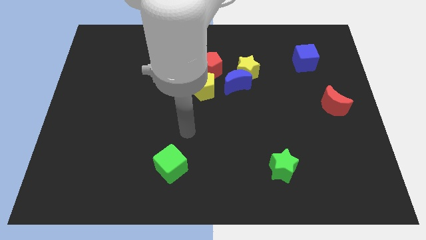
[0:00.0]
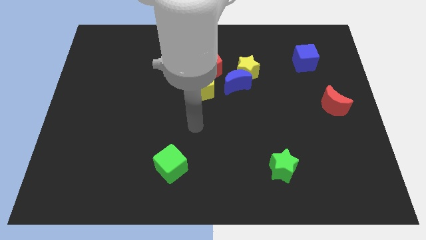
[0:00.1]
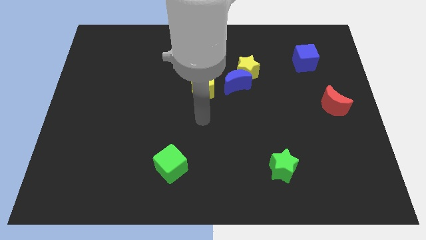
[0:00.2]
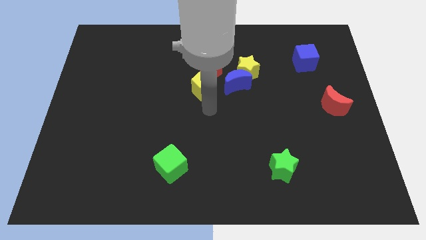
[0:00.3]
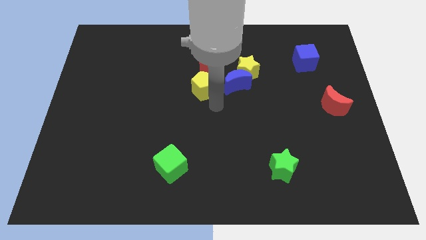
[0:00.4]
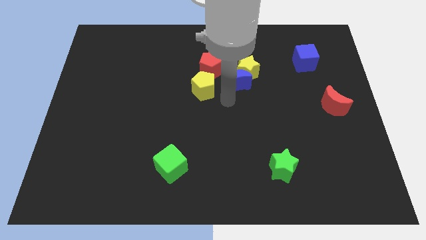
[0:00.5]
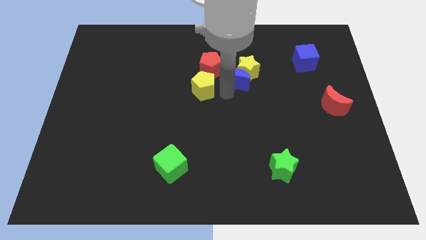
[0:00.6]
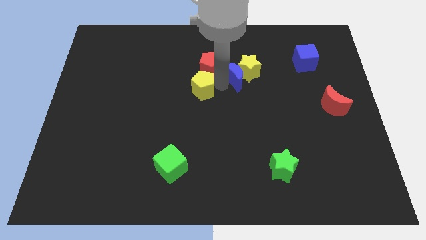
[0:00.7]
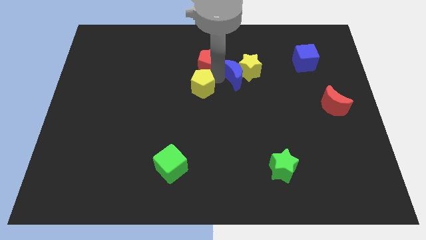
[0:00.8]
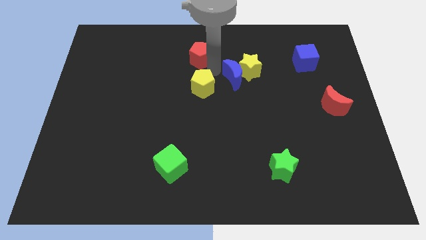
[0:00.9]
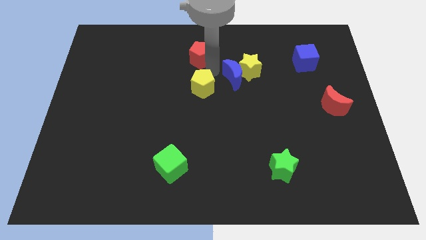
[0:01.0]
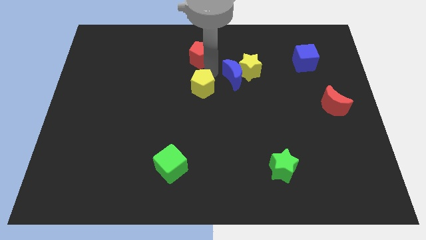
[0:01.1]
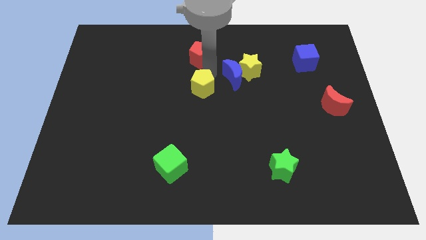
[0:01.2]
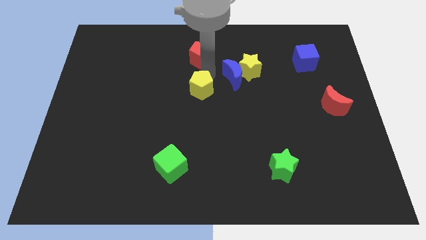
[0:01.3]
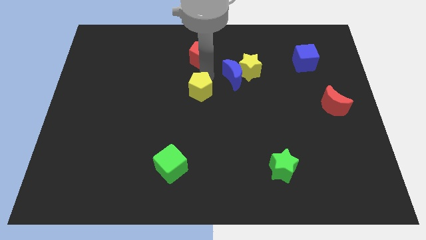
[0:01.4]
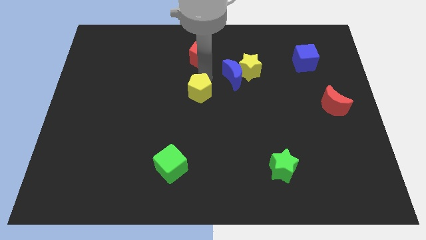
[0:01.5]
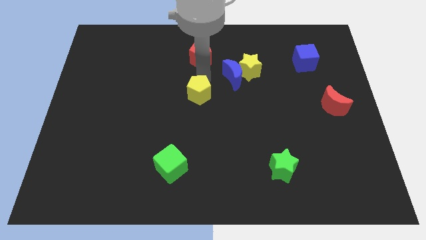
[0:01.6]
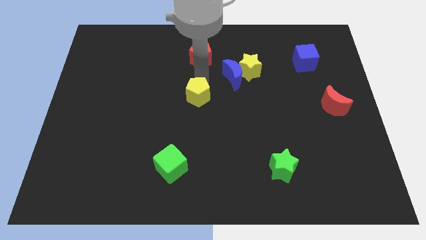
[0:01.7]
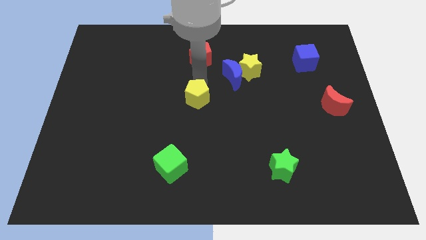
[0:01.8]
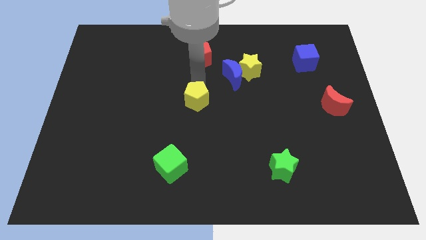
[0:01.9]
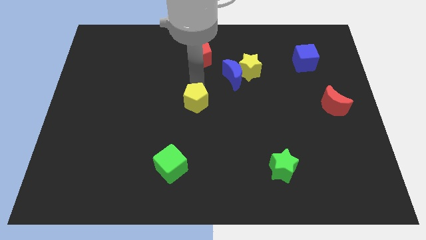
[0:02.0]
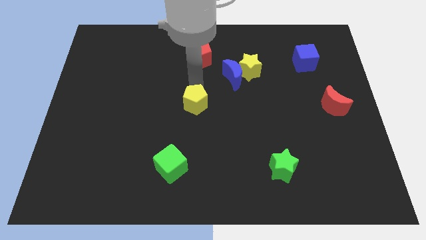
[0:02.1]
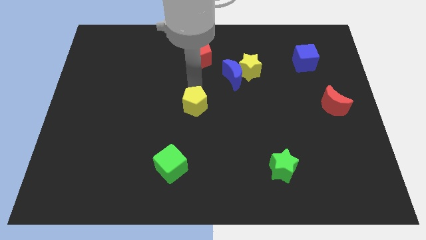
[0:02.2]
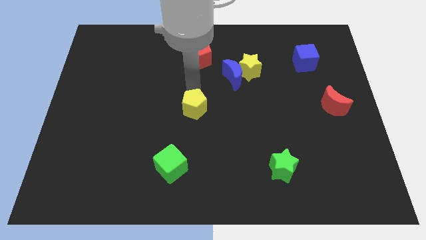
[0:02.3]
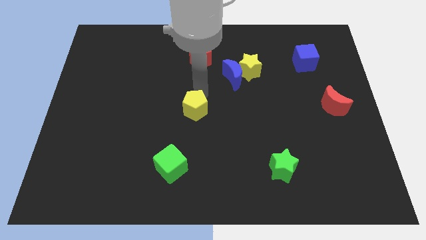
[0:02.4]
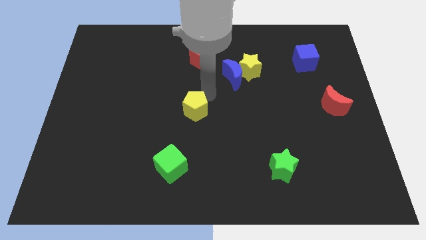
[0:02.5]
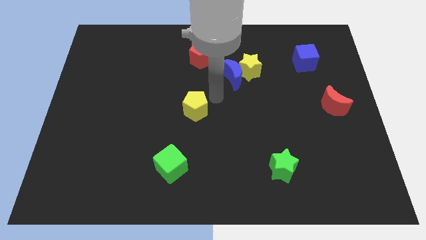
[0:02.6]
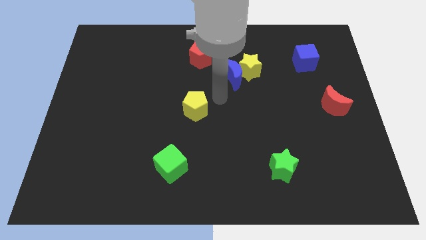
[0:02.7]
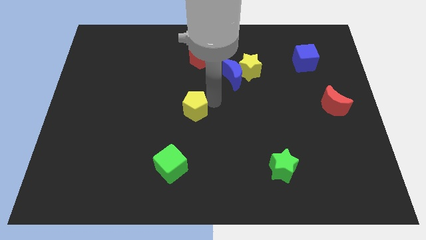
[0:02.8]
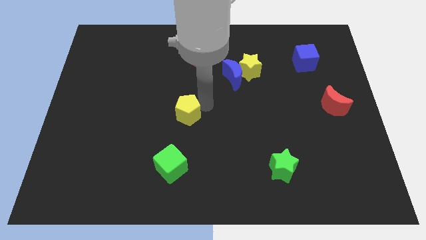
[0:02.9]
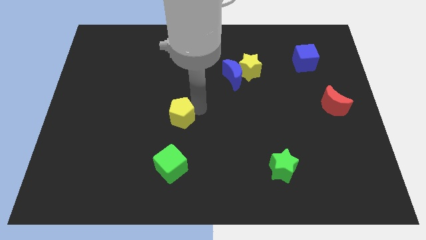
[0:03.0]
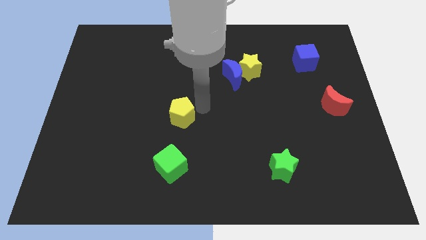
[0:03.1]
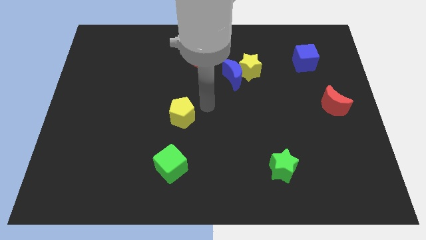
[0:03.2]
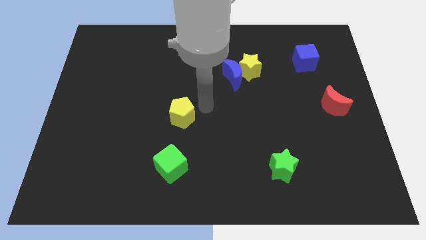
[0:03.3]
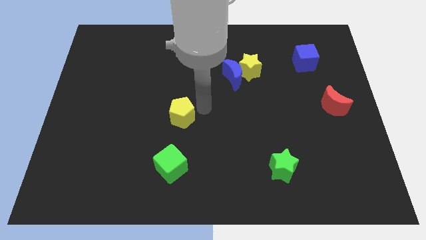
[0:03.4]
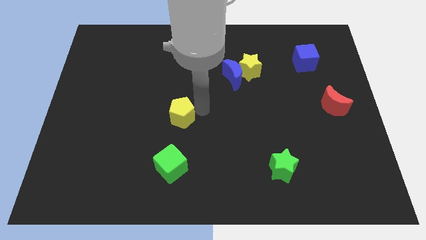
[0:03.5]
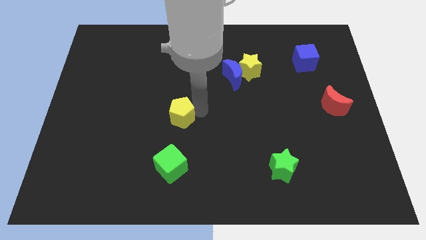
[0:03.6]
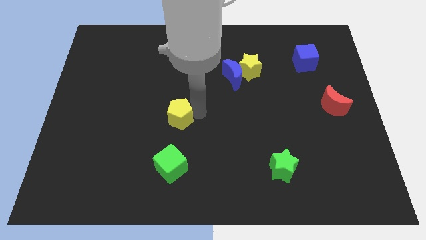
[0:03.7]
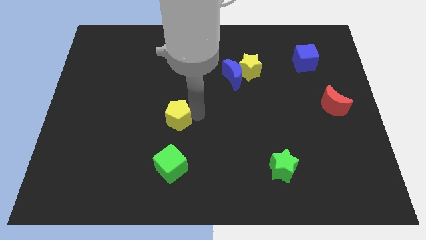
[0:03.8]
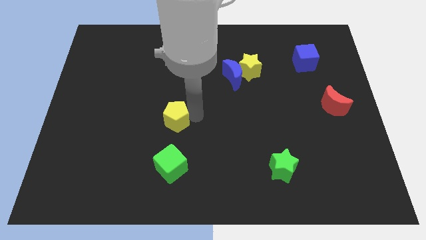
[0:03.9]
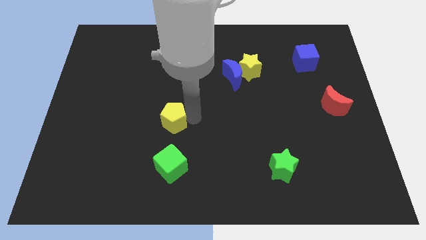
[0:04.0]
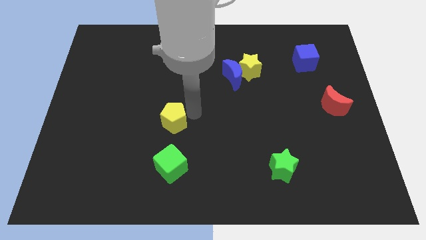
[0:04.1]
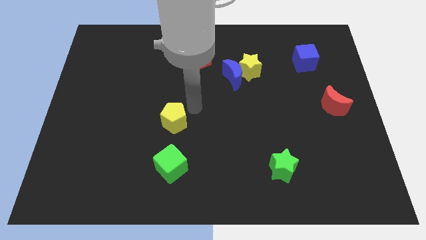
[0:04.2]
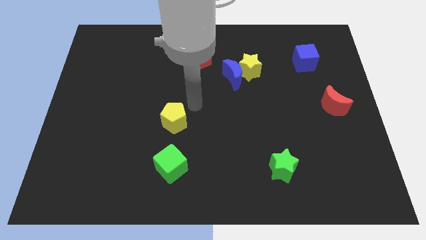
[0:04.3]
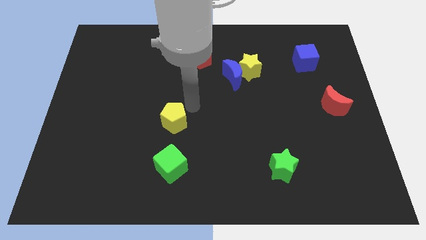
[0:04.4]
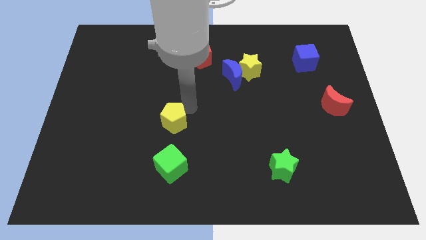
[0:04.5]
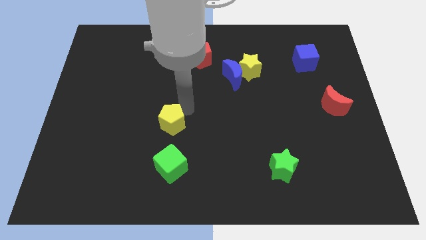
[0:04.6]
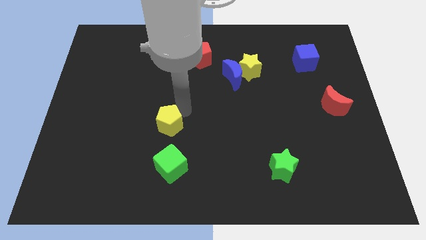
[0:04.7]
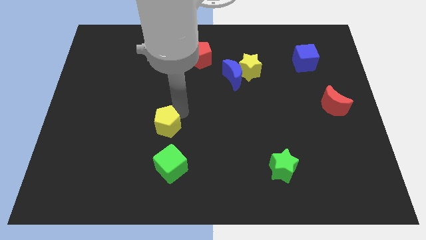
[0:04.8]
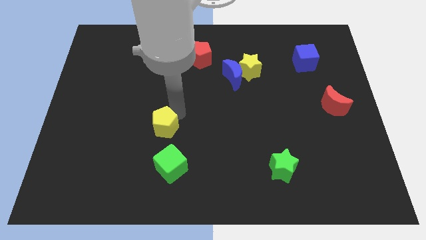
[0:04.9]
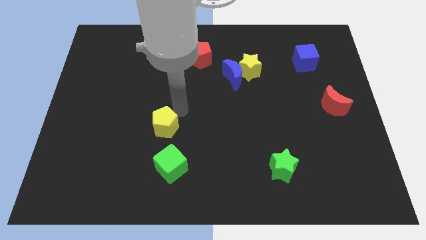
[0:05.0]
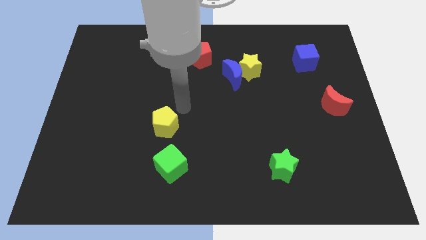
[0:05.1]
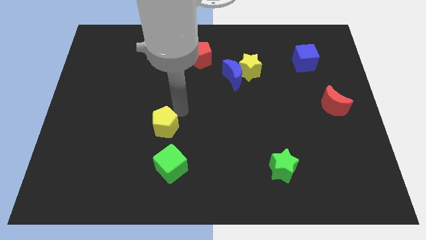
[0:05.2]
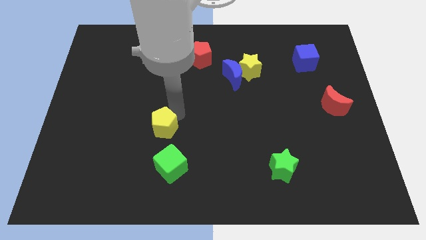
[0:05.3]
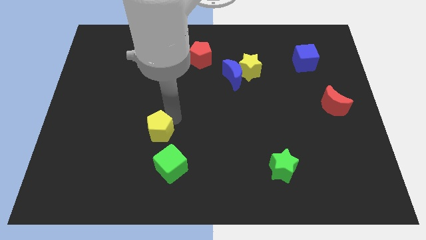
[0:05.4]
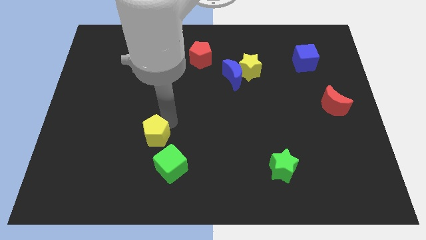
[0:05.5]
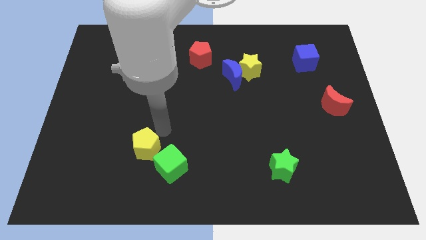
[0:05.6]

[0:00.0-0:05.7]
slide the yellow pentagon to the left side of the green cube

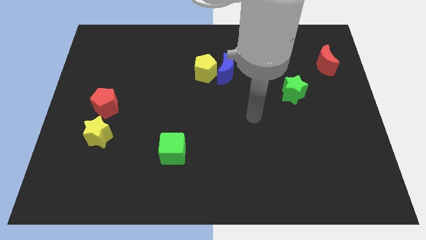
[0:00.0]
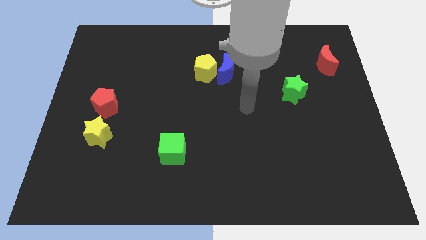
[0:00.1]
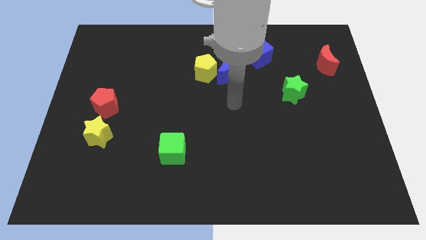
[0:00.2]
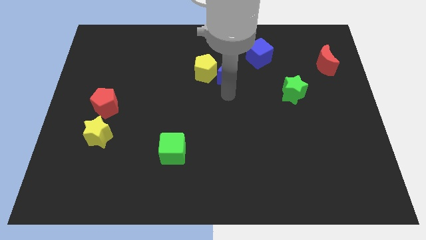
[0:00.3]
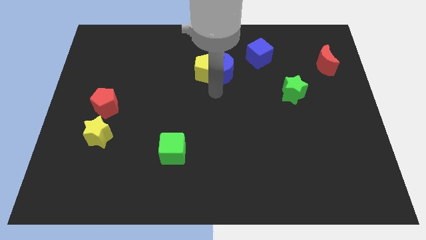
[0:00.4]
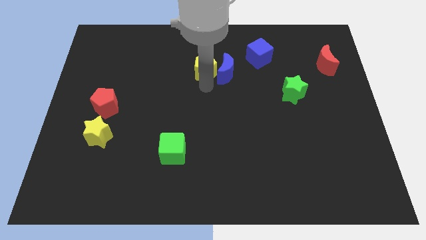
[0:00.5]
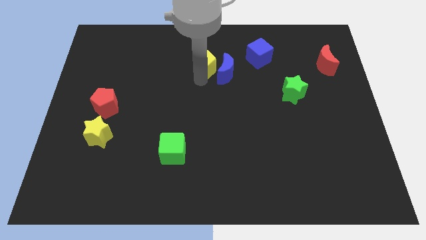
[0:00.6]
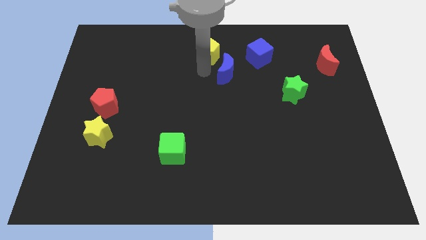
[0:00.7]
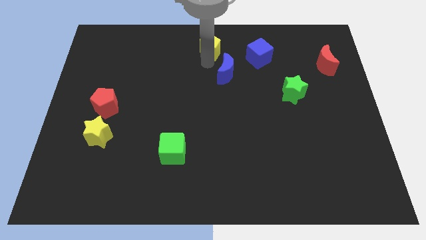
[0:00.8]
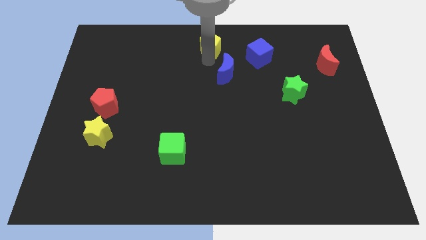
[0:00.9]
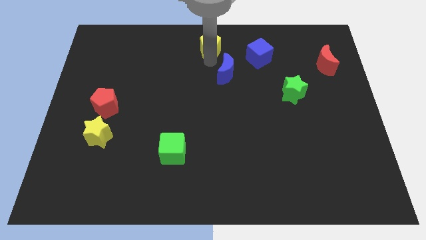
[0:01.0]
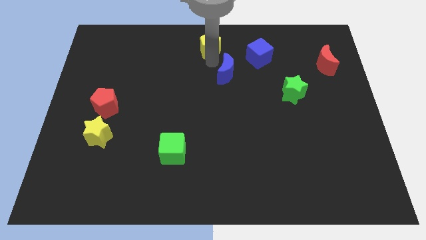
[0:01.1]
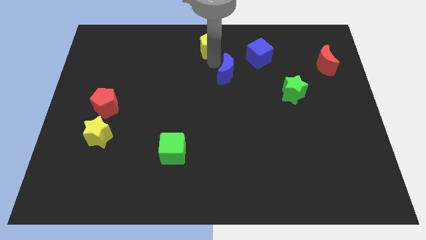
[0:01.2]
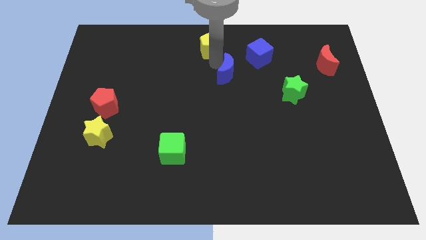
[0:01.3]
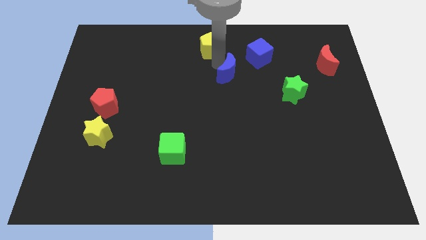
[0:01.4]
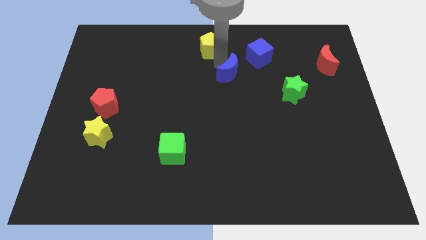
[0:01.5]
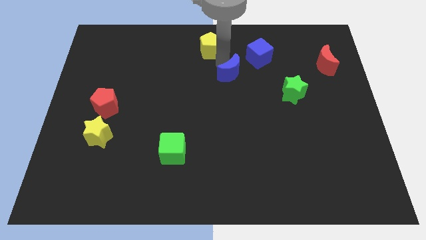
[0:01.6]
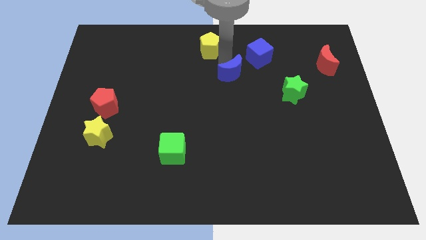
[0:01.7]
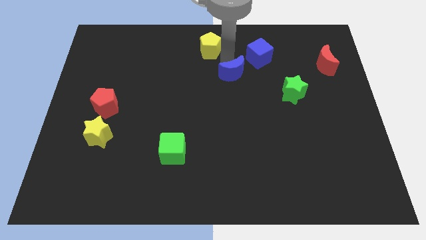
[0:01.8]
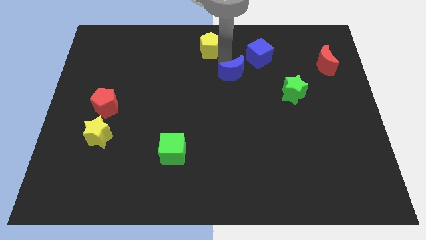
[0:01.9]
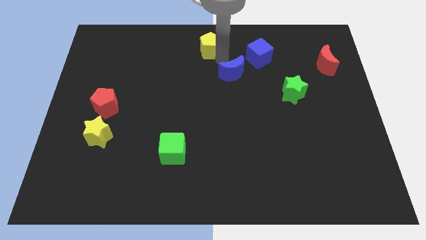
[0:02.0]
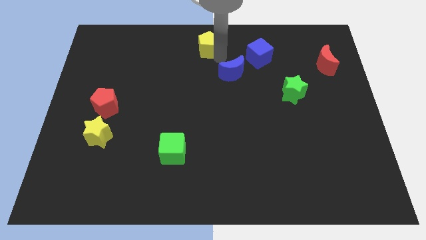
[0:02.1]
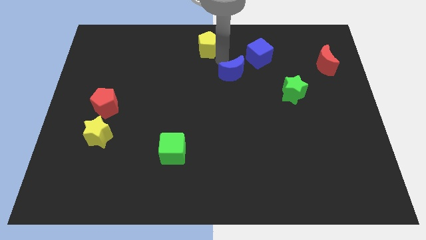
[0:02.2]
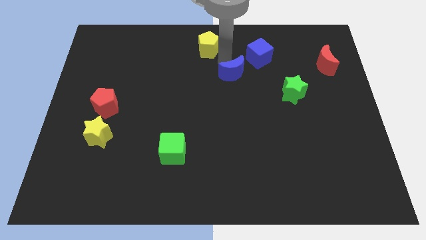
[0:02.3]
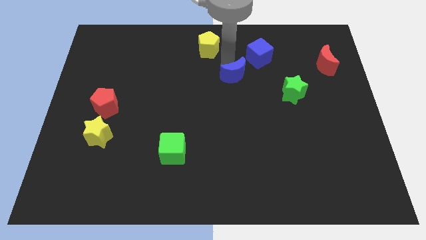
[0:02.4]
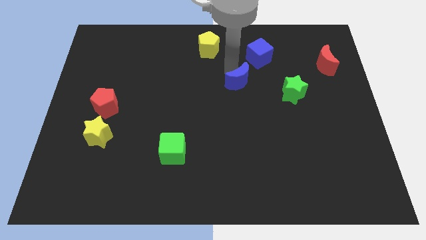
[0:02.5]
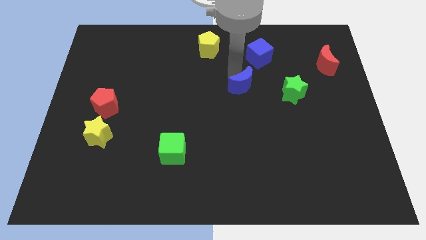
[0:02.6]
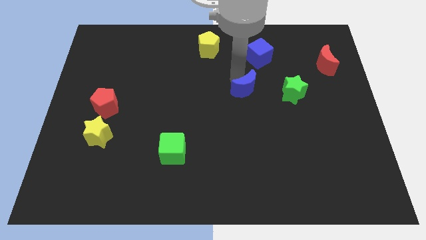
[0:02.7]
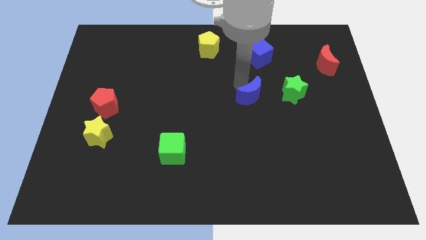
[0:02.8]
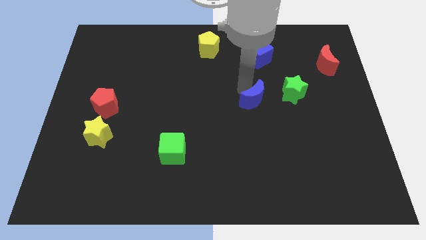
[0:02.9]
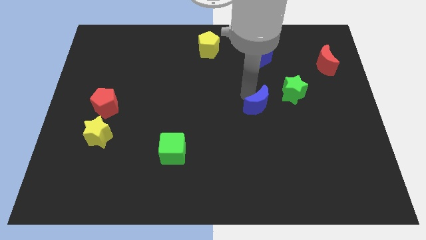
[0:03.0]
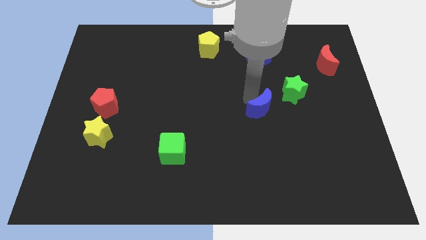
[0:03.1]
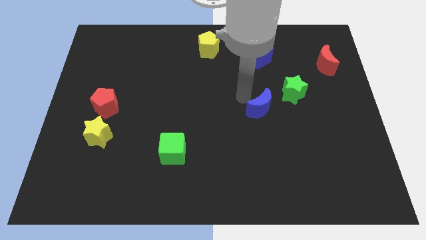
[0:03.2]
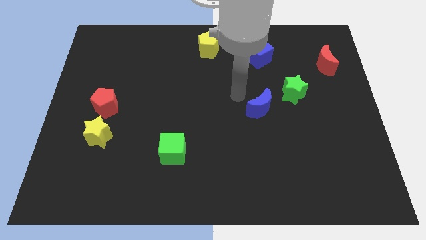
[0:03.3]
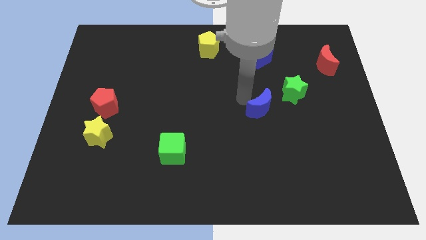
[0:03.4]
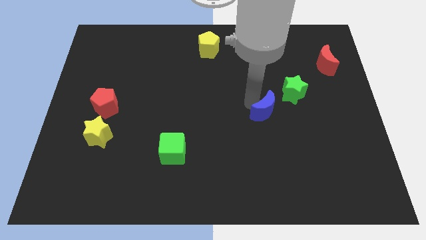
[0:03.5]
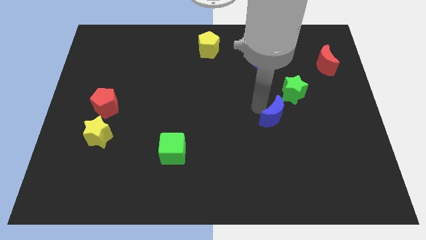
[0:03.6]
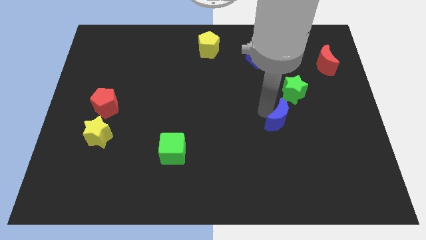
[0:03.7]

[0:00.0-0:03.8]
slide the blue moon to the bottom side of the green star
